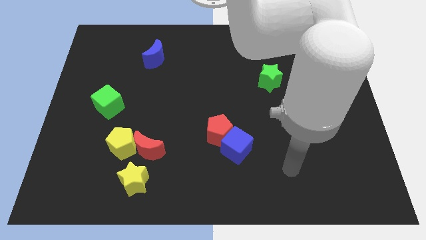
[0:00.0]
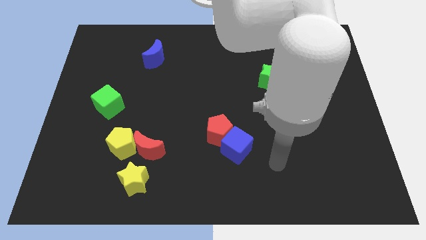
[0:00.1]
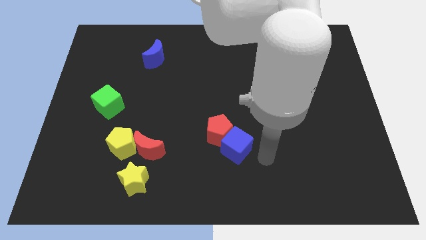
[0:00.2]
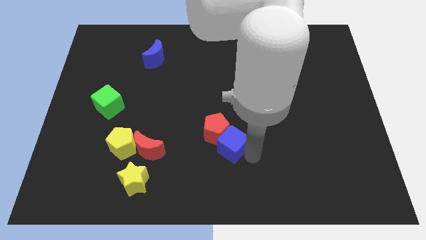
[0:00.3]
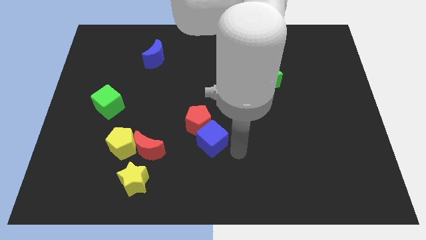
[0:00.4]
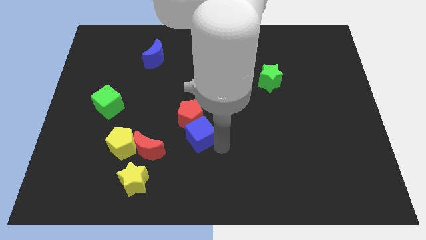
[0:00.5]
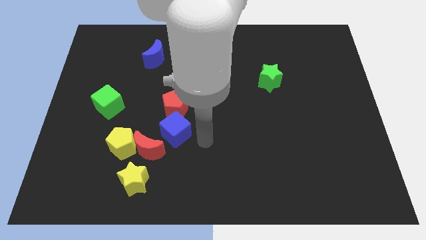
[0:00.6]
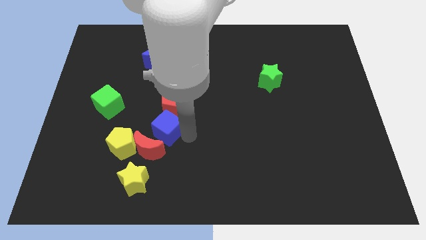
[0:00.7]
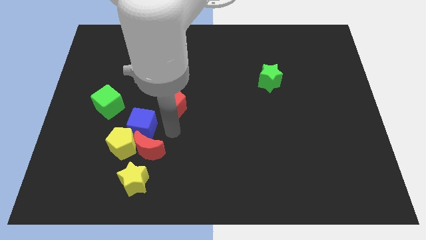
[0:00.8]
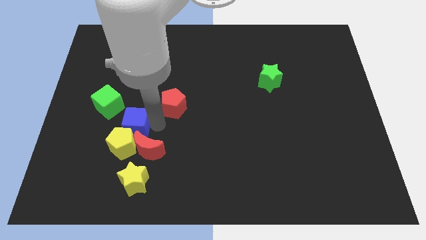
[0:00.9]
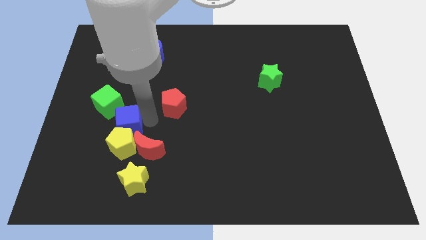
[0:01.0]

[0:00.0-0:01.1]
move the red pentagon away from the blue cube

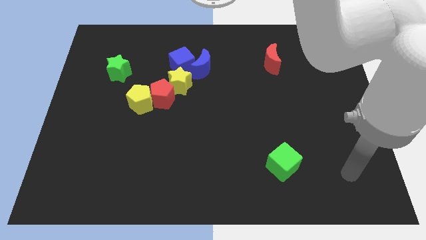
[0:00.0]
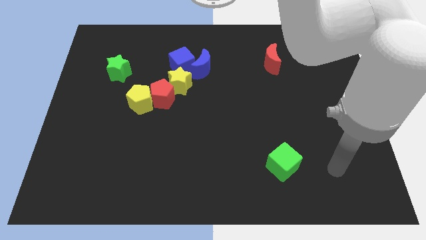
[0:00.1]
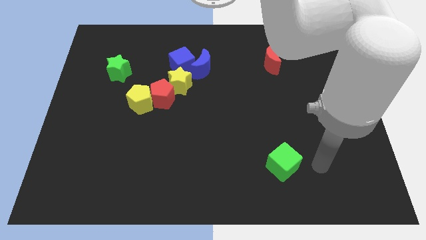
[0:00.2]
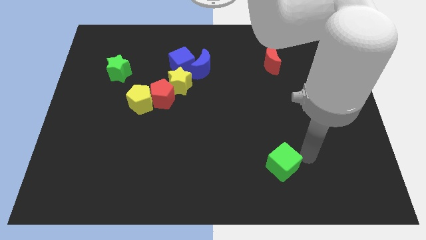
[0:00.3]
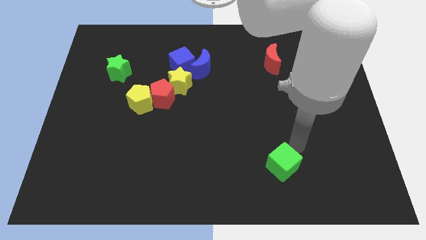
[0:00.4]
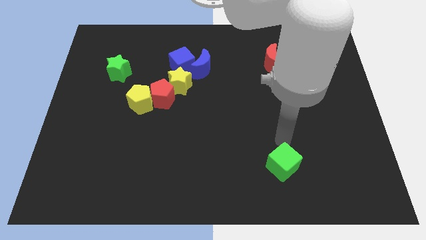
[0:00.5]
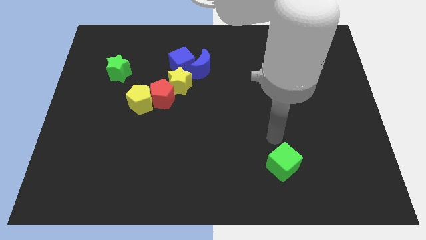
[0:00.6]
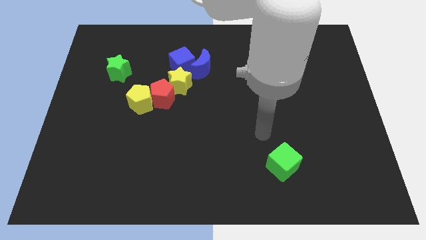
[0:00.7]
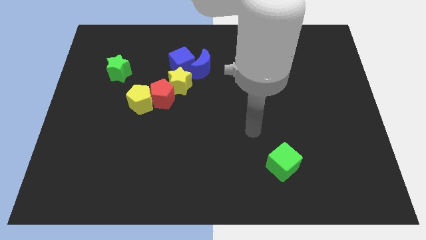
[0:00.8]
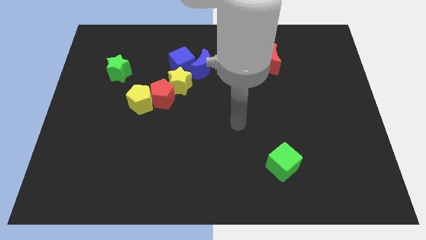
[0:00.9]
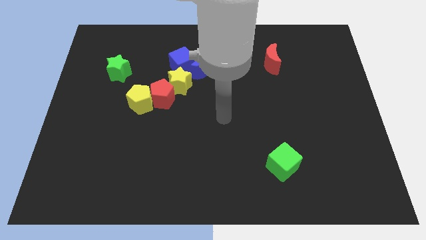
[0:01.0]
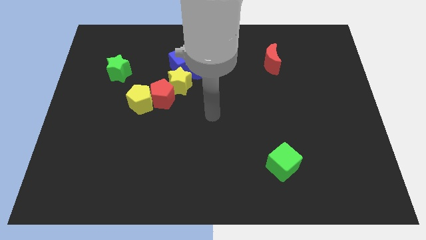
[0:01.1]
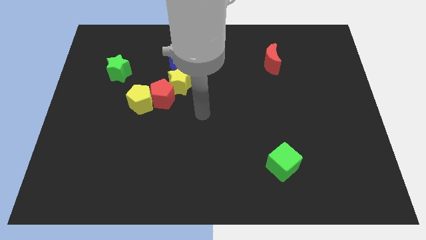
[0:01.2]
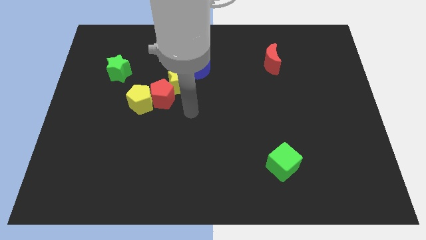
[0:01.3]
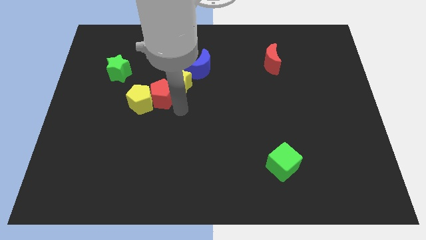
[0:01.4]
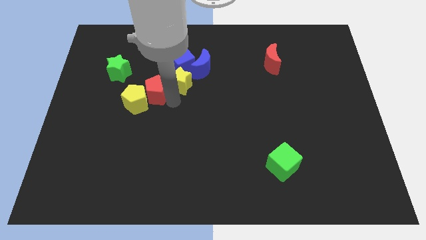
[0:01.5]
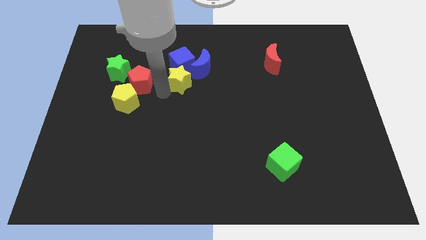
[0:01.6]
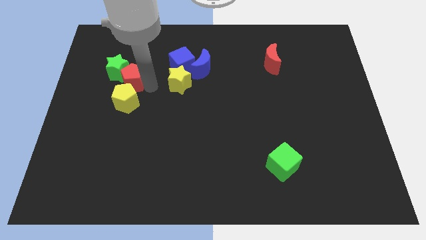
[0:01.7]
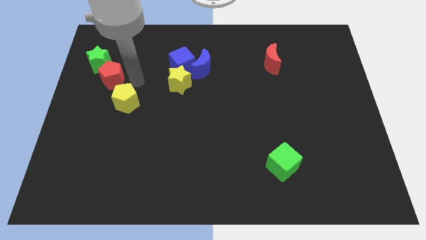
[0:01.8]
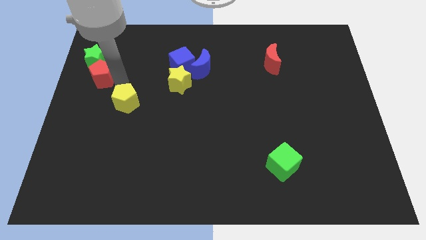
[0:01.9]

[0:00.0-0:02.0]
pull the yellow pentagon apart from the red pentagon

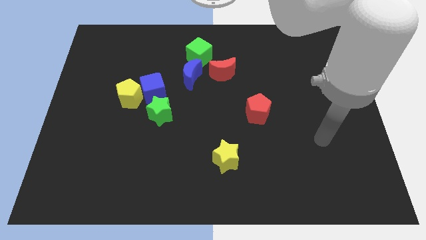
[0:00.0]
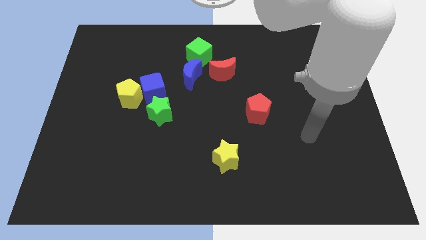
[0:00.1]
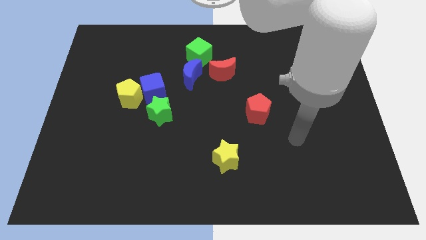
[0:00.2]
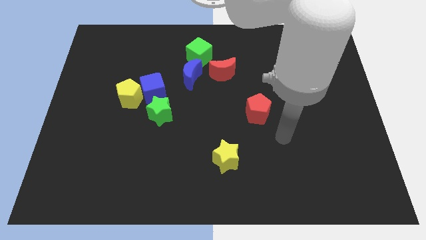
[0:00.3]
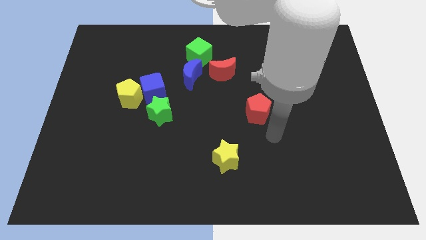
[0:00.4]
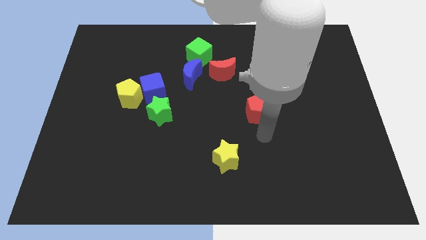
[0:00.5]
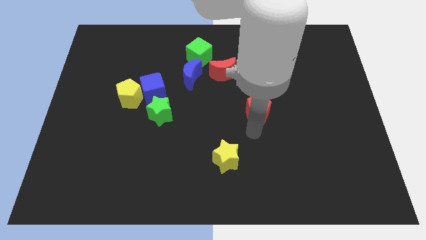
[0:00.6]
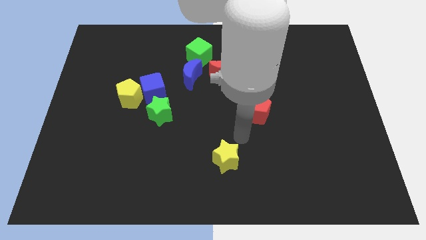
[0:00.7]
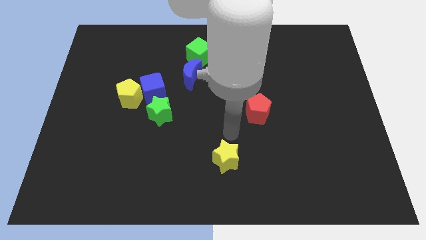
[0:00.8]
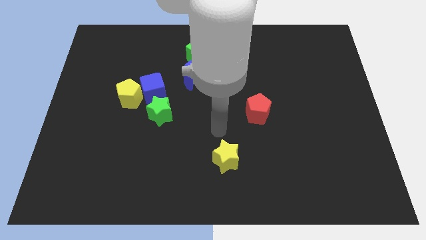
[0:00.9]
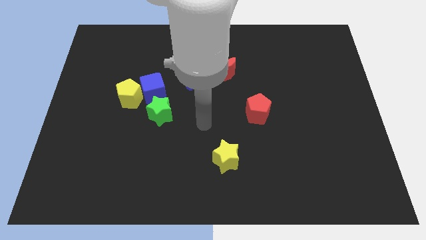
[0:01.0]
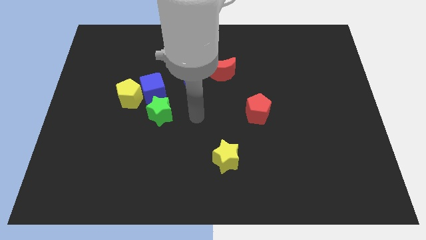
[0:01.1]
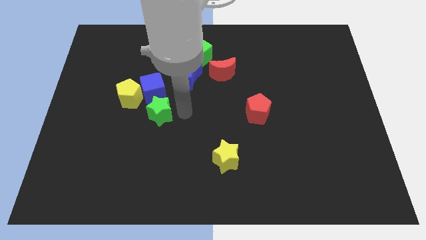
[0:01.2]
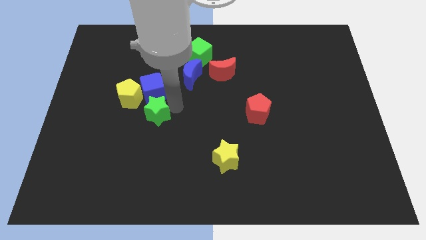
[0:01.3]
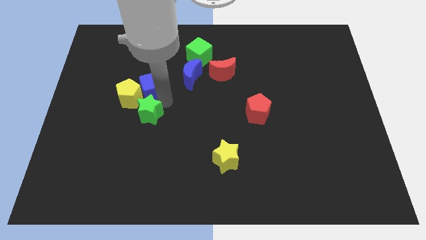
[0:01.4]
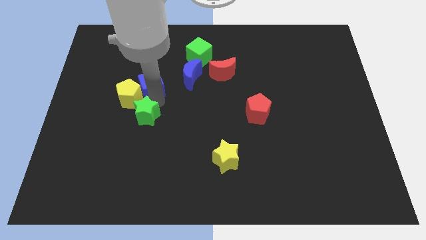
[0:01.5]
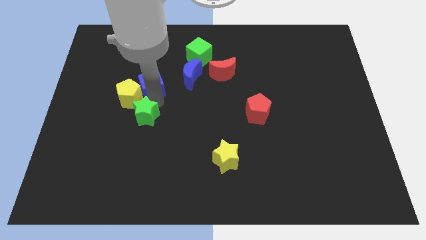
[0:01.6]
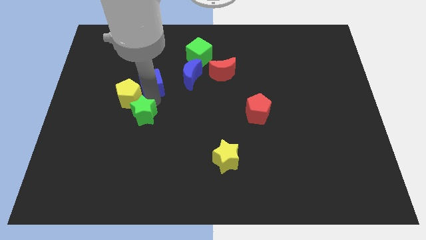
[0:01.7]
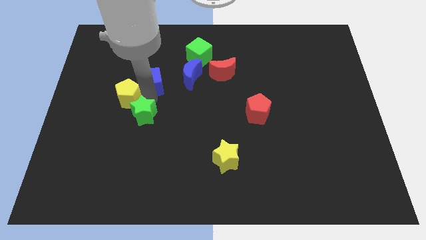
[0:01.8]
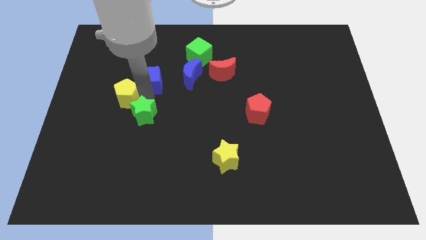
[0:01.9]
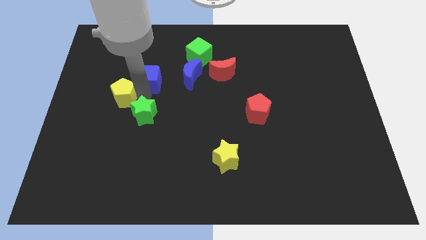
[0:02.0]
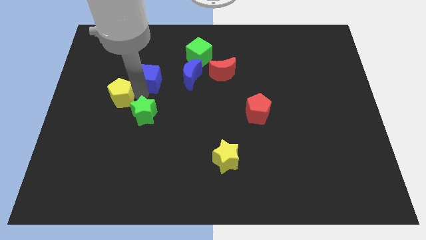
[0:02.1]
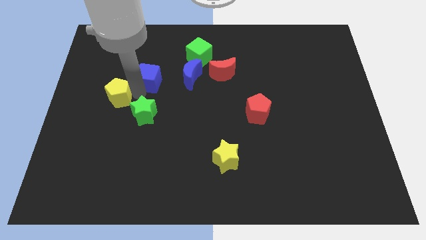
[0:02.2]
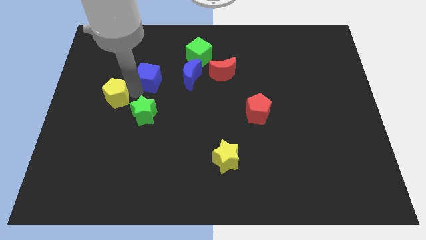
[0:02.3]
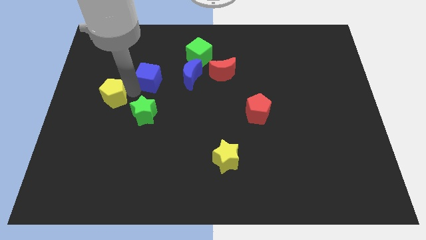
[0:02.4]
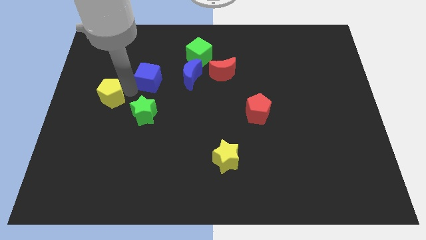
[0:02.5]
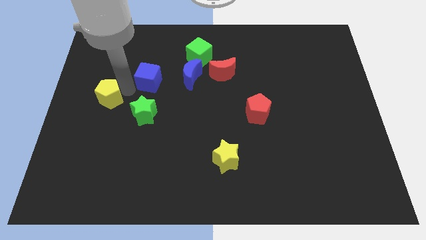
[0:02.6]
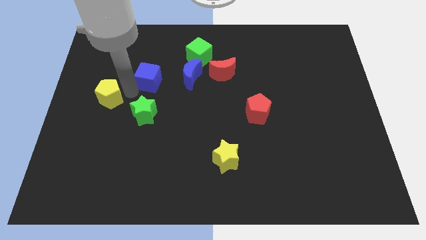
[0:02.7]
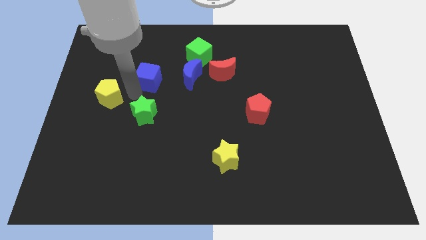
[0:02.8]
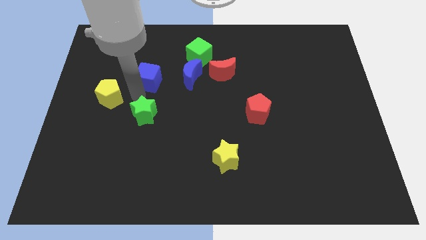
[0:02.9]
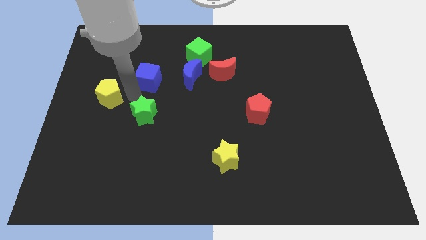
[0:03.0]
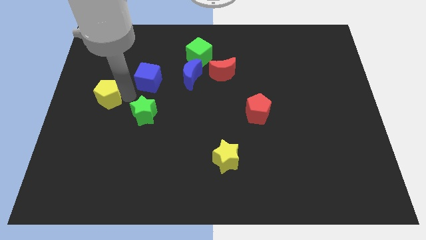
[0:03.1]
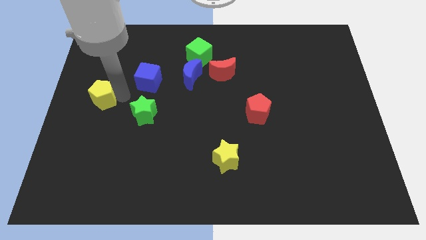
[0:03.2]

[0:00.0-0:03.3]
move the yellow pentagon away from the blue cube and green star

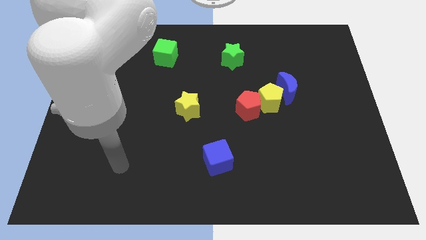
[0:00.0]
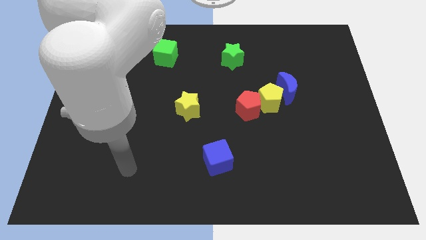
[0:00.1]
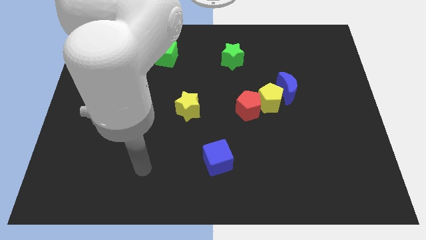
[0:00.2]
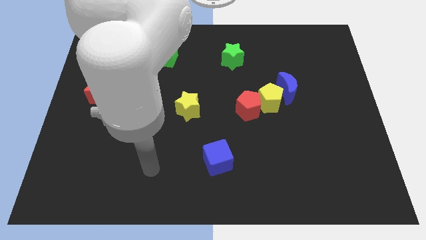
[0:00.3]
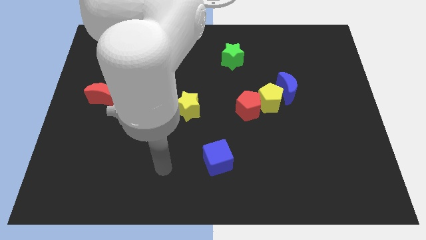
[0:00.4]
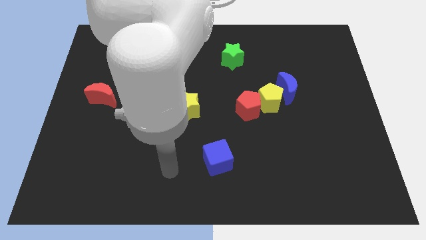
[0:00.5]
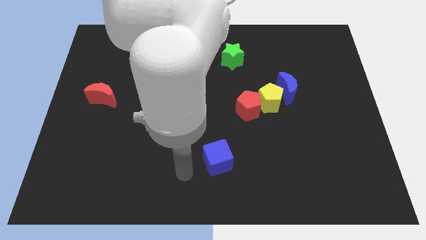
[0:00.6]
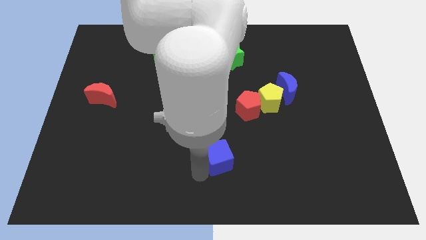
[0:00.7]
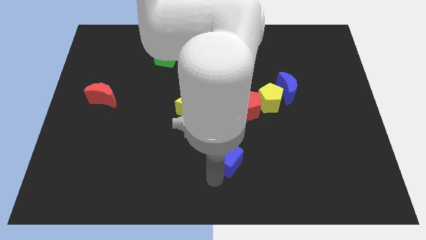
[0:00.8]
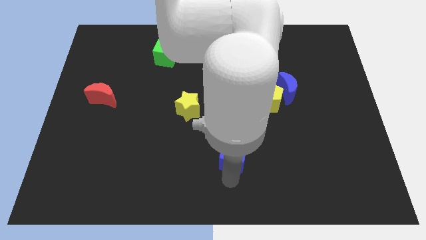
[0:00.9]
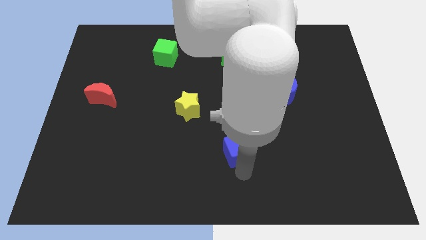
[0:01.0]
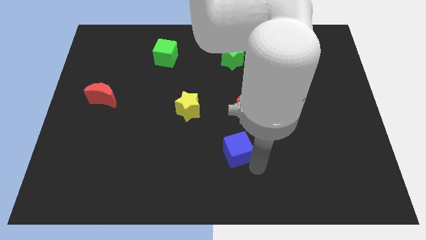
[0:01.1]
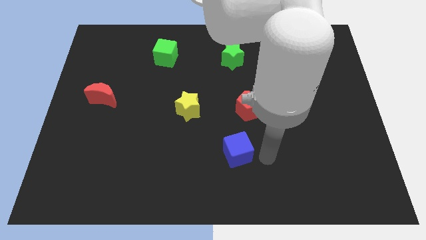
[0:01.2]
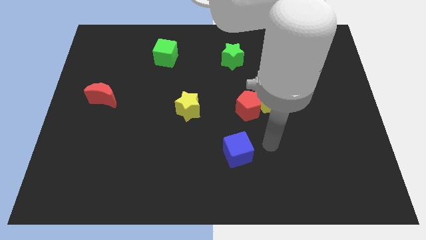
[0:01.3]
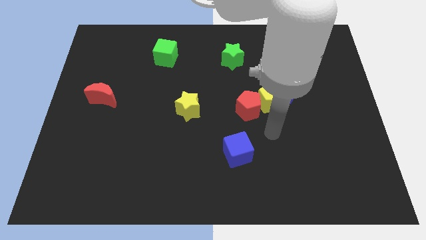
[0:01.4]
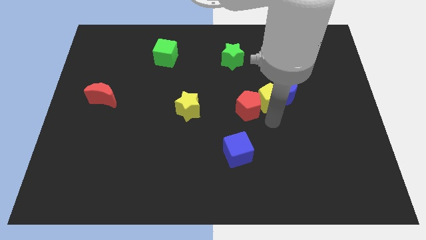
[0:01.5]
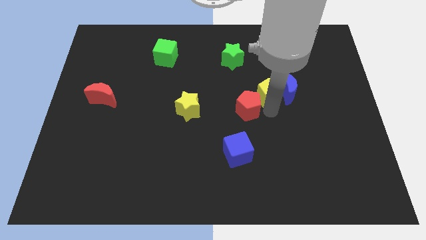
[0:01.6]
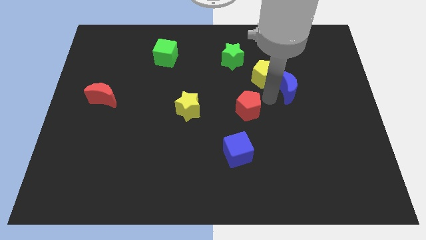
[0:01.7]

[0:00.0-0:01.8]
move the red pentagon away from the yellow pentagon

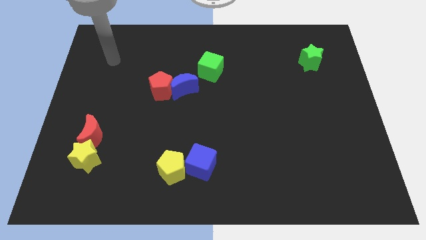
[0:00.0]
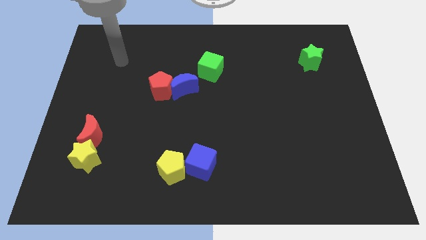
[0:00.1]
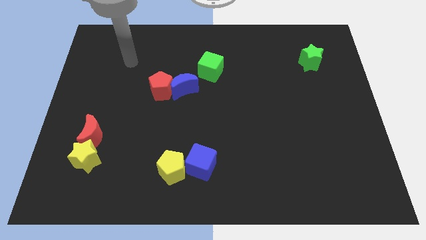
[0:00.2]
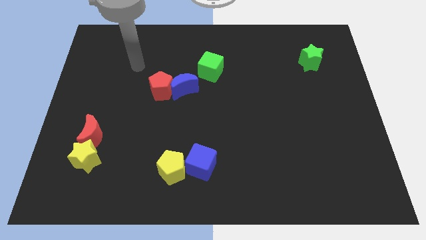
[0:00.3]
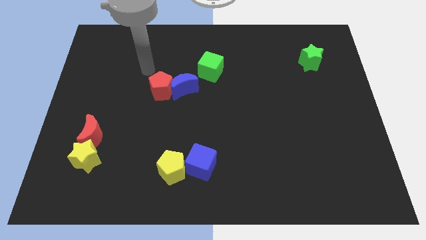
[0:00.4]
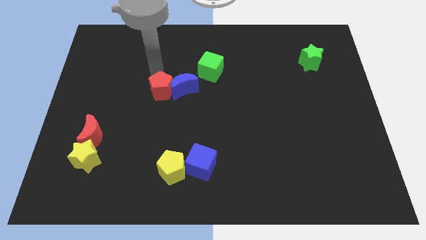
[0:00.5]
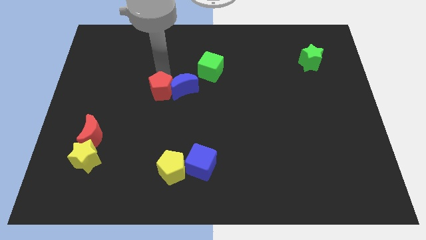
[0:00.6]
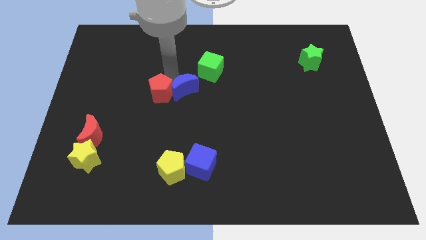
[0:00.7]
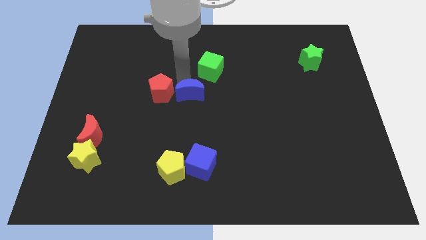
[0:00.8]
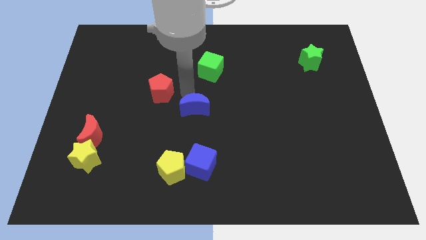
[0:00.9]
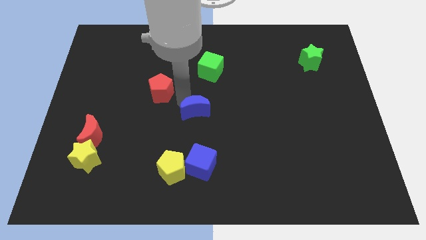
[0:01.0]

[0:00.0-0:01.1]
separate the red pentagon from the blue moon
